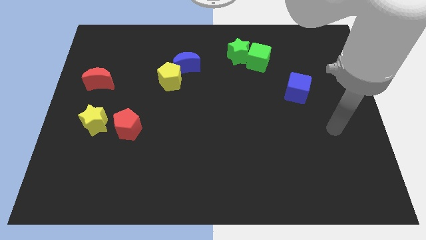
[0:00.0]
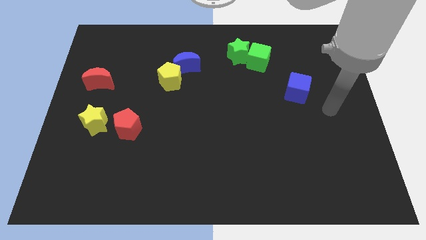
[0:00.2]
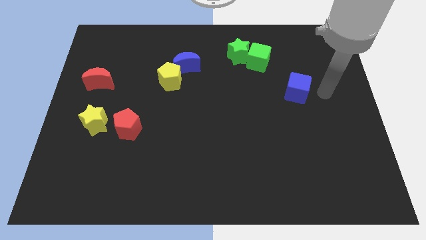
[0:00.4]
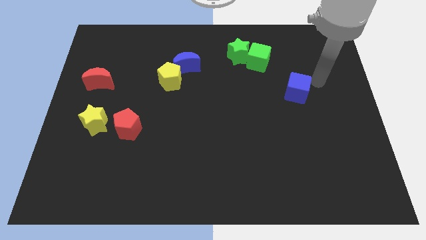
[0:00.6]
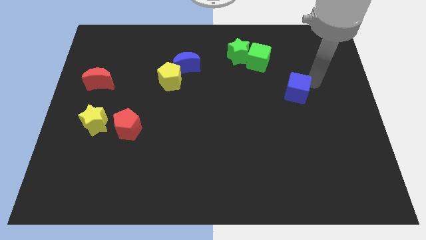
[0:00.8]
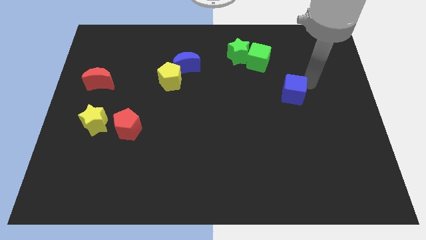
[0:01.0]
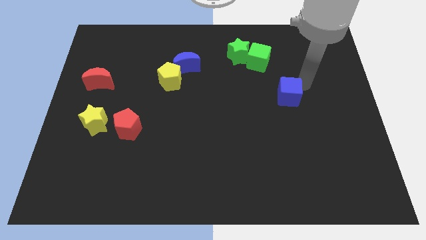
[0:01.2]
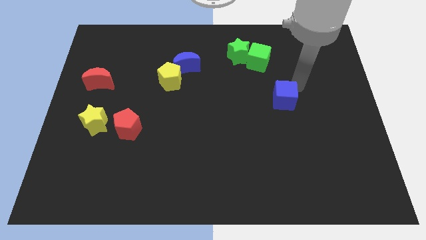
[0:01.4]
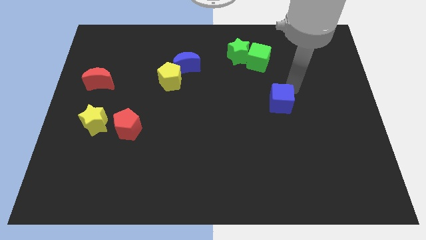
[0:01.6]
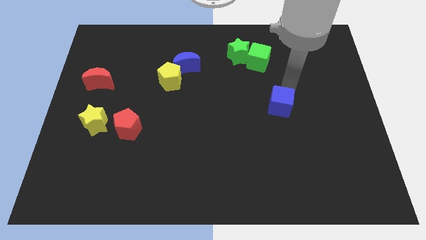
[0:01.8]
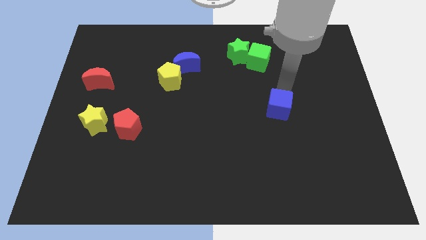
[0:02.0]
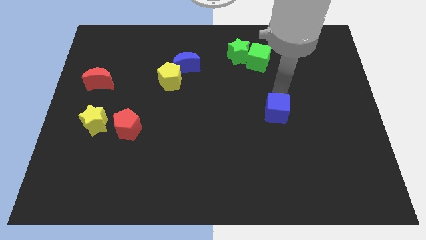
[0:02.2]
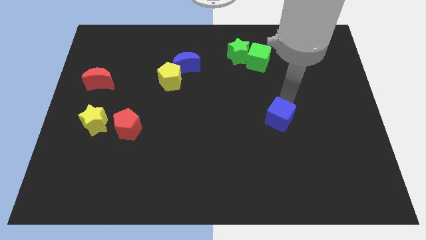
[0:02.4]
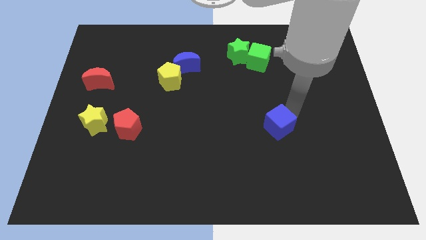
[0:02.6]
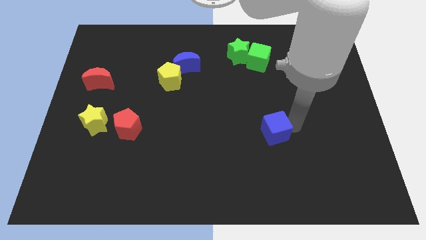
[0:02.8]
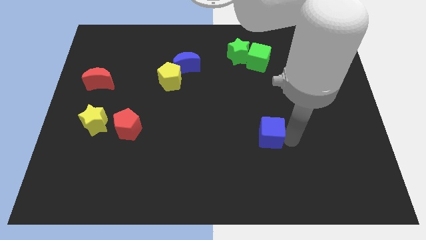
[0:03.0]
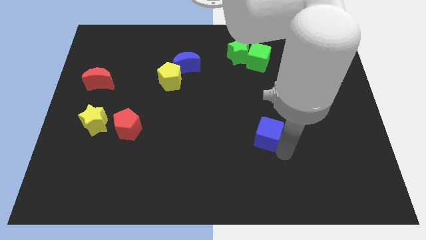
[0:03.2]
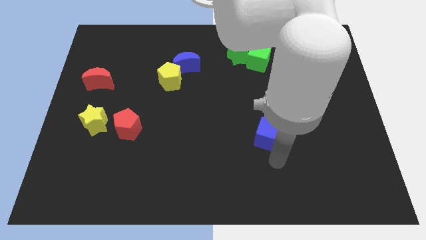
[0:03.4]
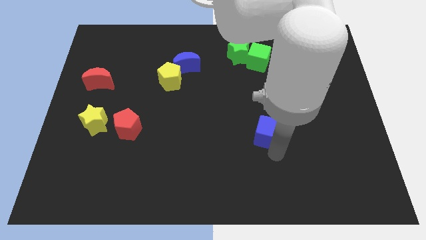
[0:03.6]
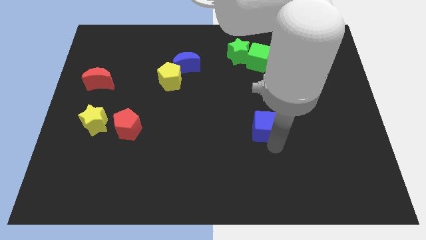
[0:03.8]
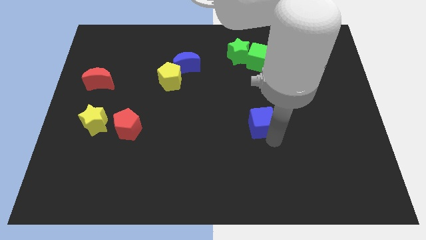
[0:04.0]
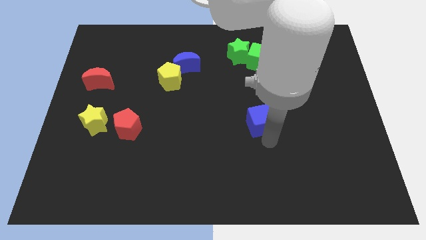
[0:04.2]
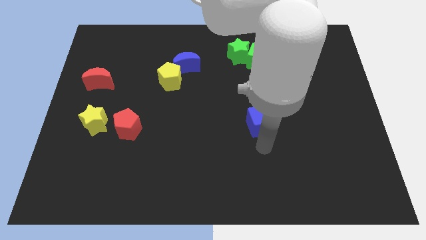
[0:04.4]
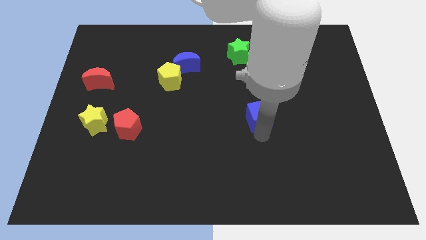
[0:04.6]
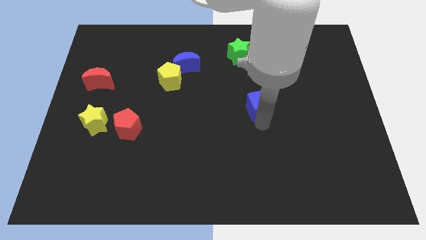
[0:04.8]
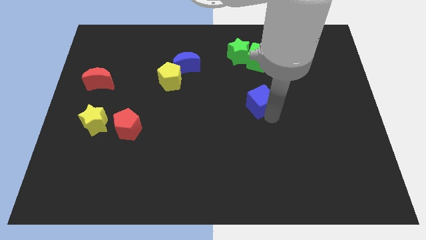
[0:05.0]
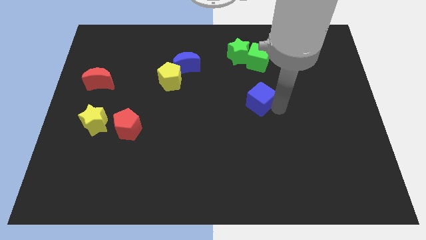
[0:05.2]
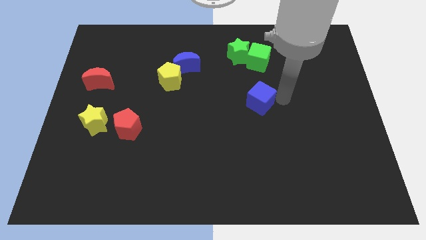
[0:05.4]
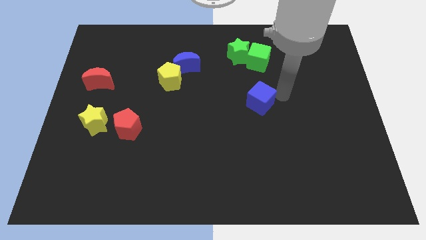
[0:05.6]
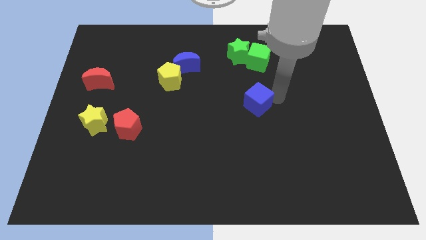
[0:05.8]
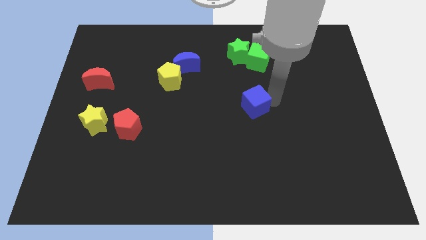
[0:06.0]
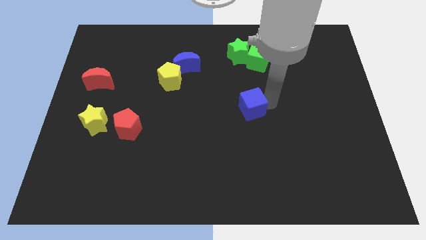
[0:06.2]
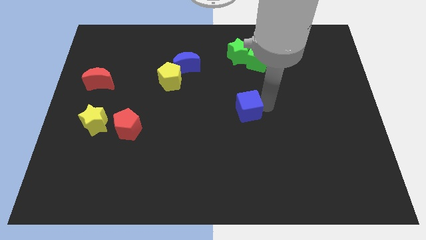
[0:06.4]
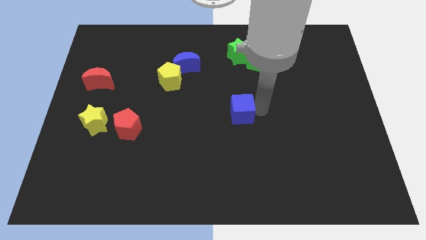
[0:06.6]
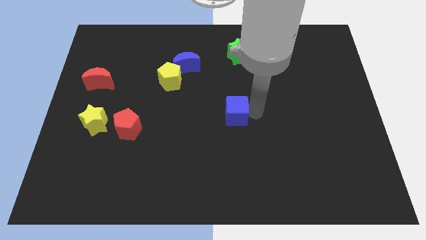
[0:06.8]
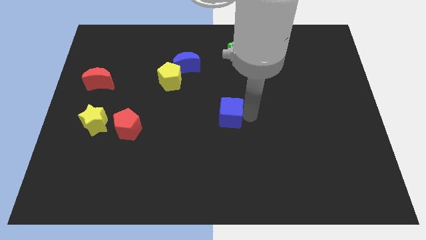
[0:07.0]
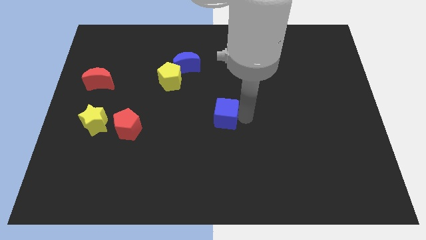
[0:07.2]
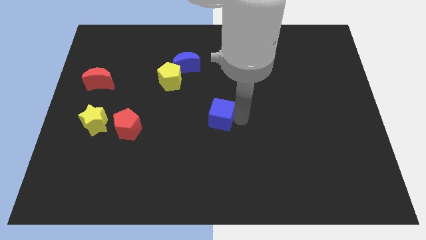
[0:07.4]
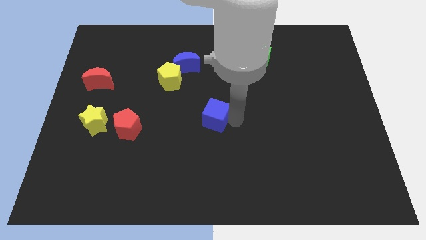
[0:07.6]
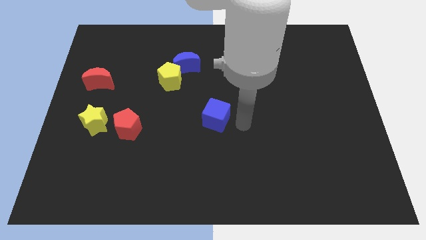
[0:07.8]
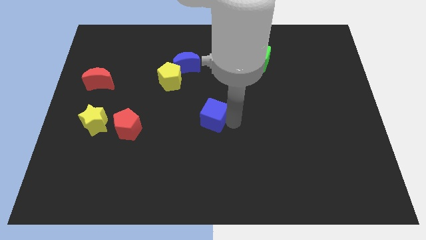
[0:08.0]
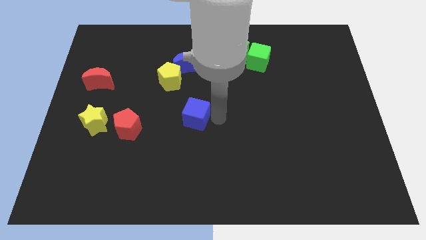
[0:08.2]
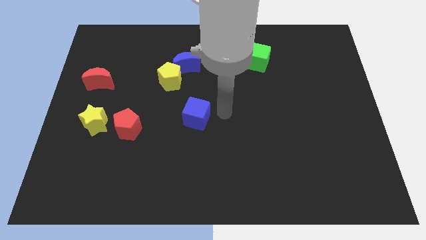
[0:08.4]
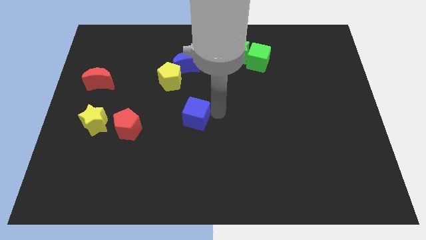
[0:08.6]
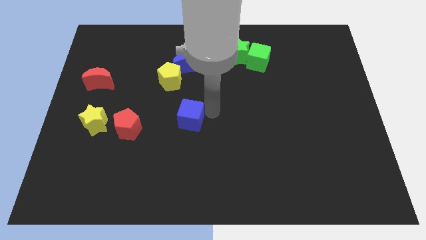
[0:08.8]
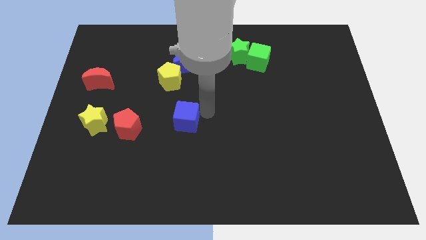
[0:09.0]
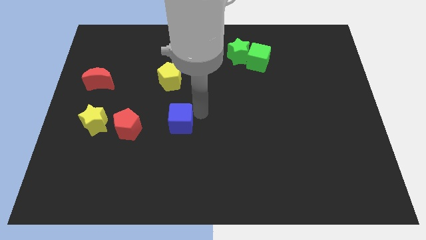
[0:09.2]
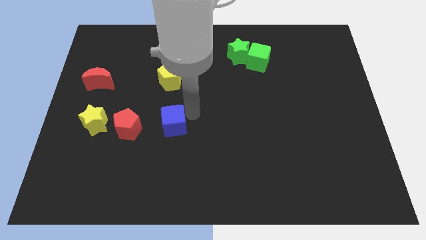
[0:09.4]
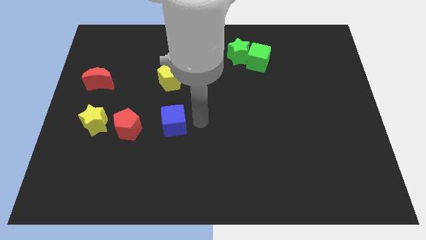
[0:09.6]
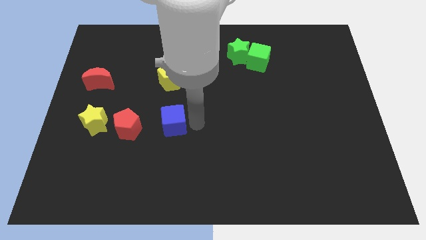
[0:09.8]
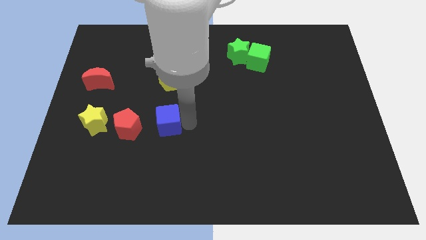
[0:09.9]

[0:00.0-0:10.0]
move the blue cube to the right of the yellow star

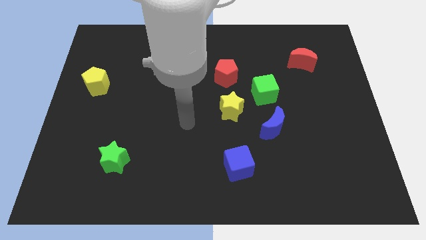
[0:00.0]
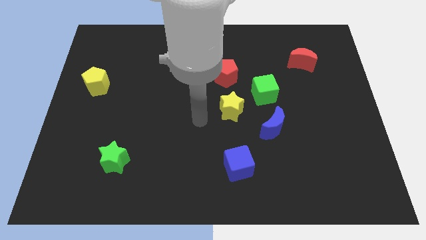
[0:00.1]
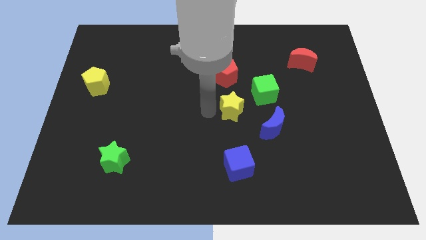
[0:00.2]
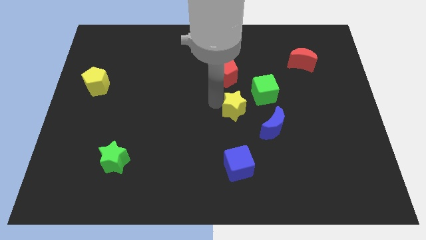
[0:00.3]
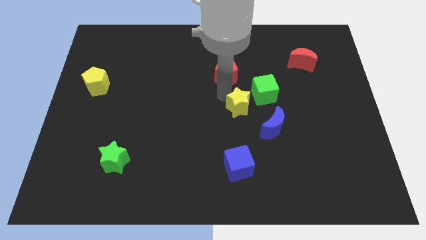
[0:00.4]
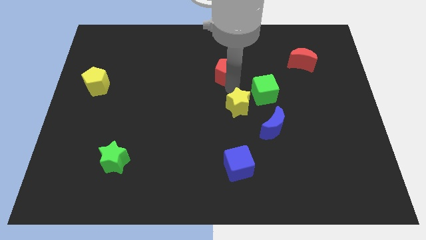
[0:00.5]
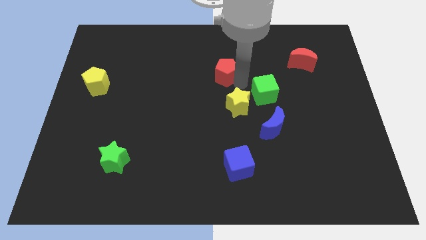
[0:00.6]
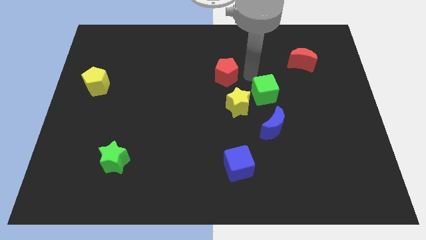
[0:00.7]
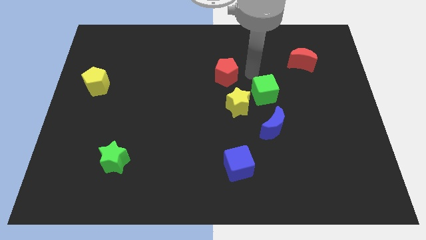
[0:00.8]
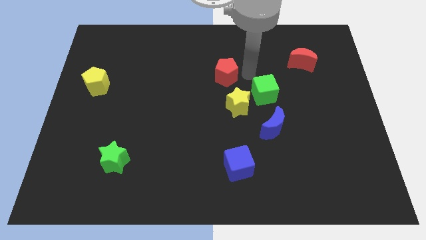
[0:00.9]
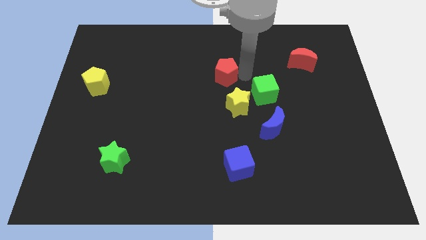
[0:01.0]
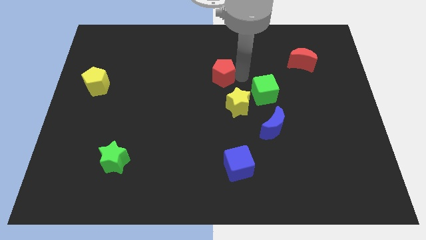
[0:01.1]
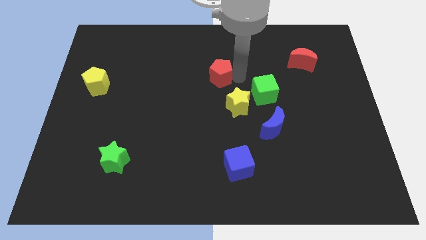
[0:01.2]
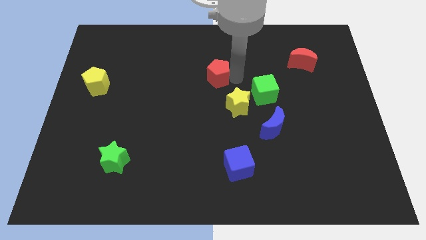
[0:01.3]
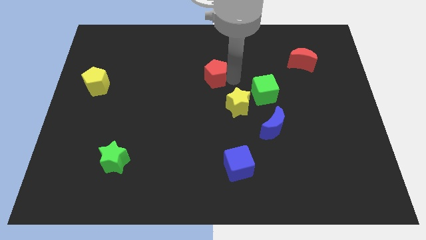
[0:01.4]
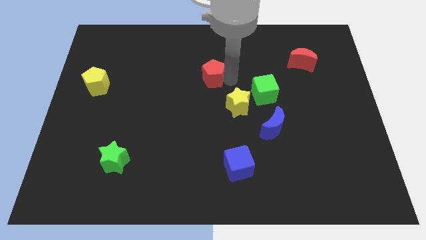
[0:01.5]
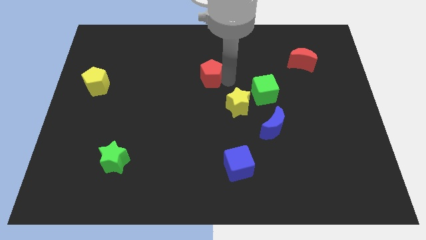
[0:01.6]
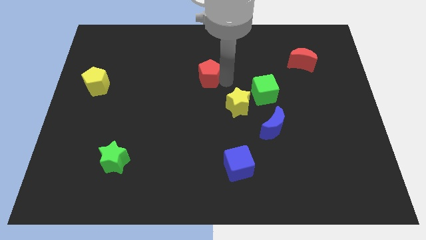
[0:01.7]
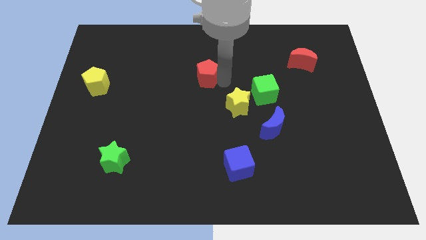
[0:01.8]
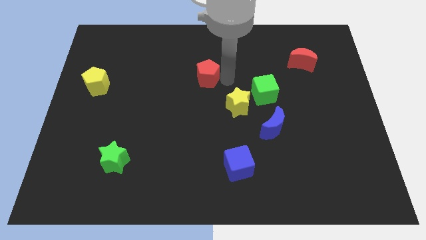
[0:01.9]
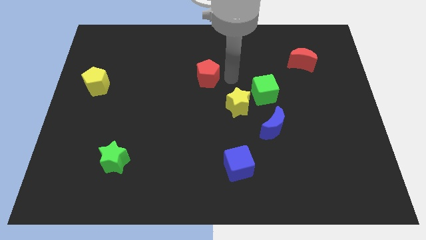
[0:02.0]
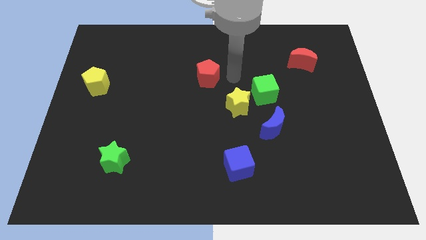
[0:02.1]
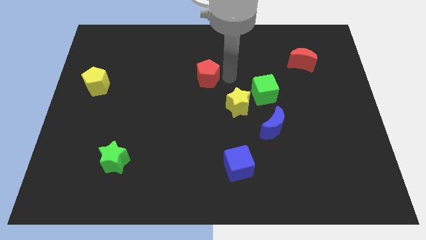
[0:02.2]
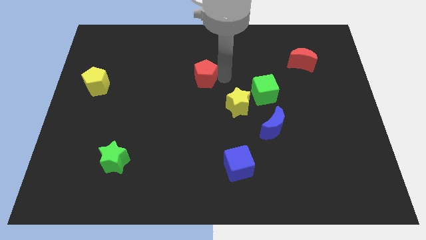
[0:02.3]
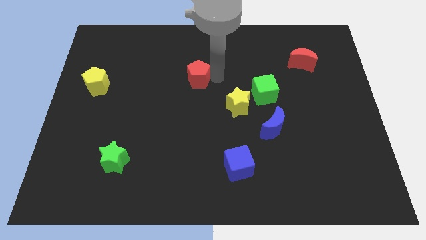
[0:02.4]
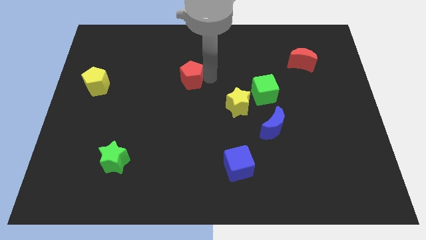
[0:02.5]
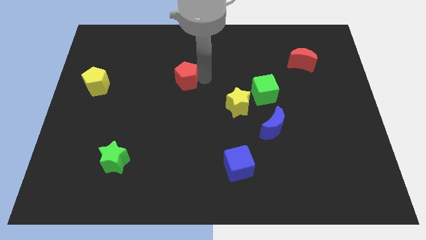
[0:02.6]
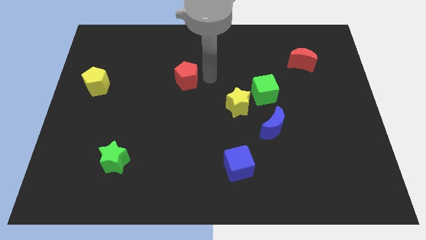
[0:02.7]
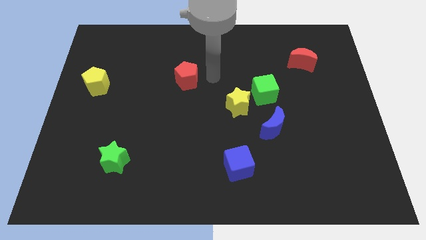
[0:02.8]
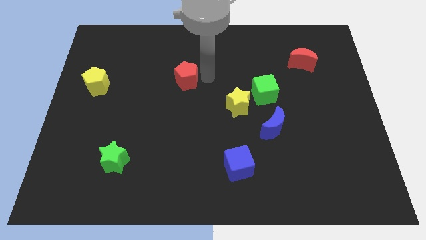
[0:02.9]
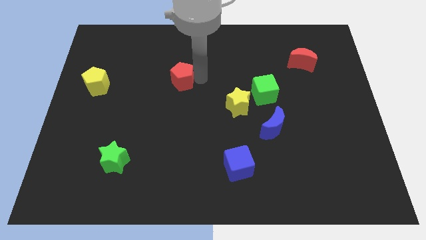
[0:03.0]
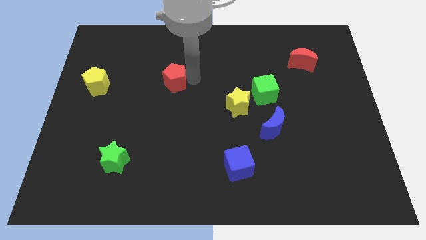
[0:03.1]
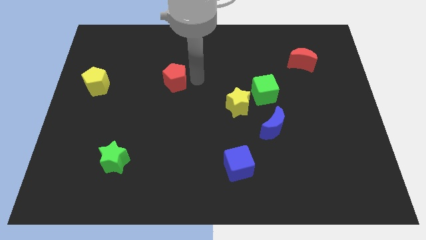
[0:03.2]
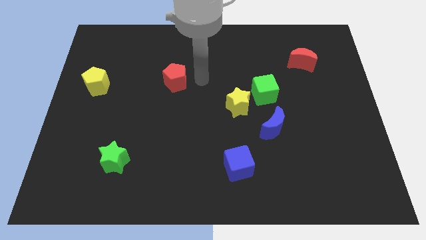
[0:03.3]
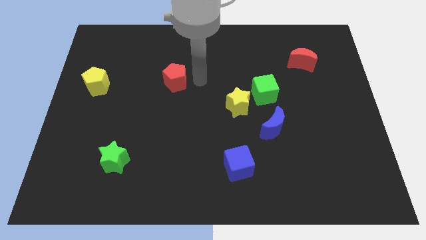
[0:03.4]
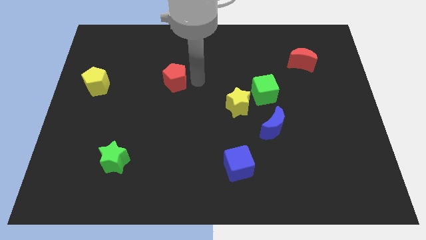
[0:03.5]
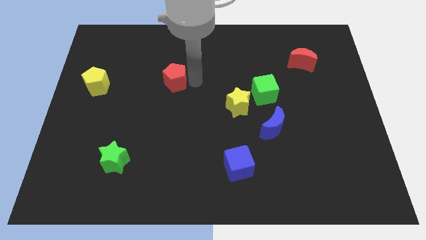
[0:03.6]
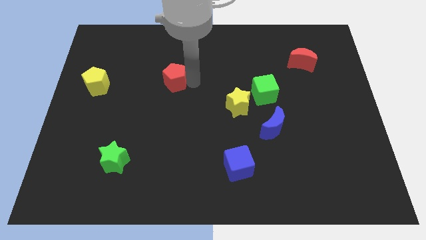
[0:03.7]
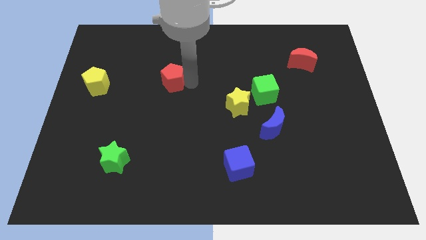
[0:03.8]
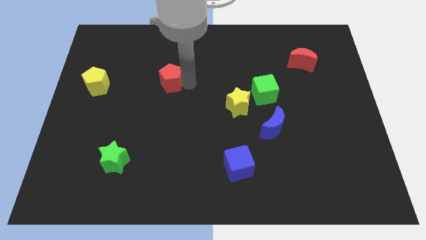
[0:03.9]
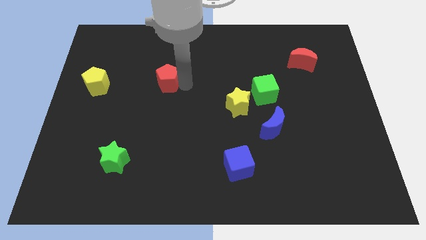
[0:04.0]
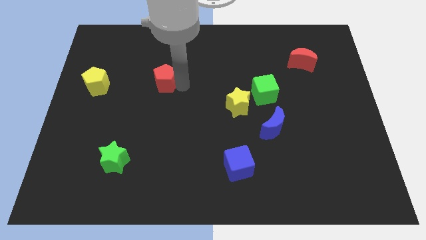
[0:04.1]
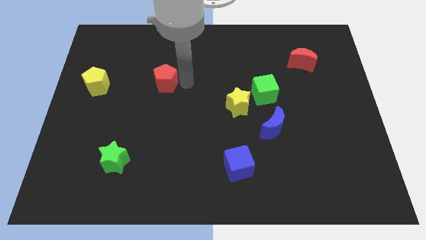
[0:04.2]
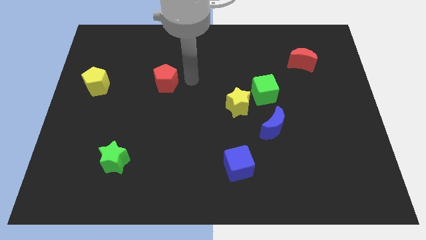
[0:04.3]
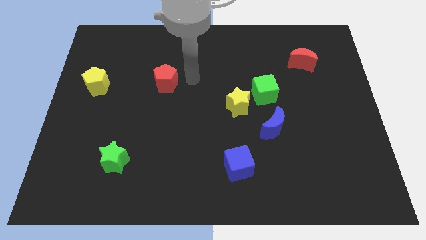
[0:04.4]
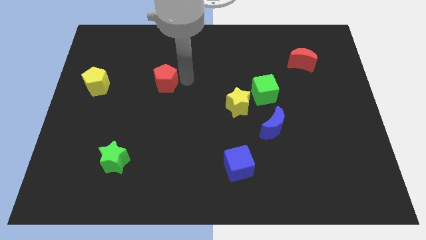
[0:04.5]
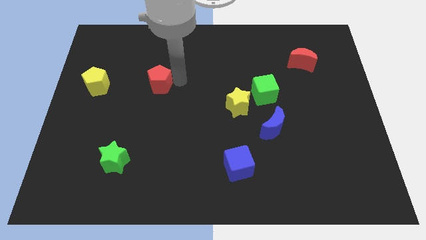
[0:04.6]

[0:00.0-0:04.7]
slide the red pentagon just right of the yellow pentagon
